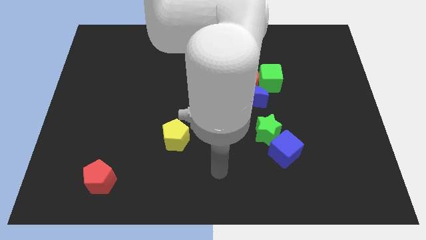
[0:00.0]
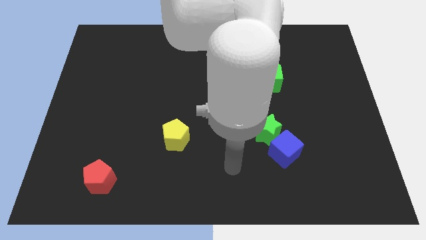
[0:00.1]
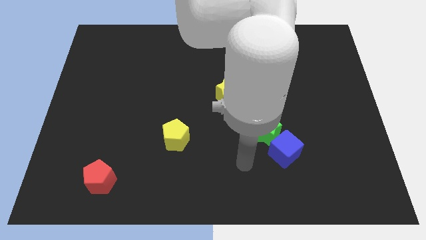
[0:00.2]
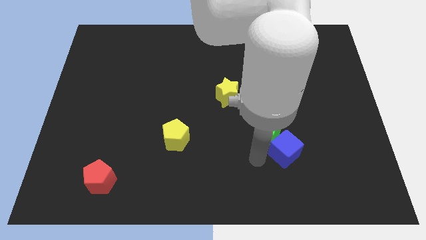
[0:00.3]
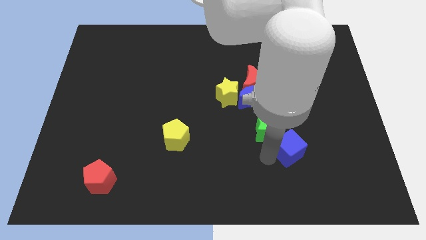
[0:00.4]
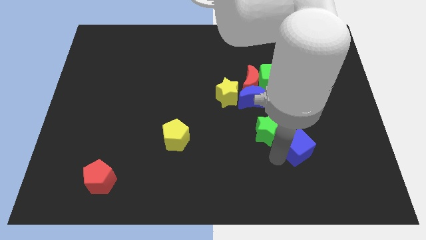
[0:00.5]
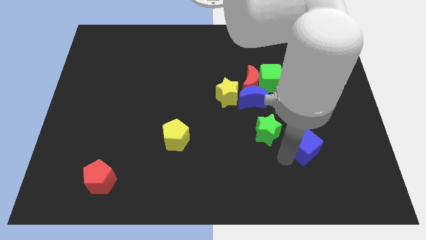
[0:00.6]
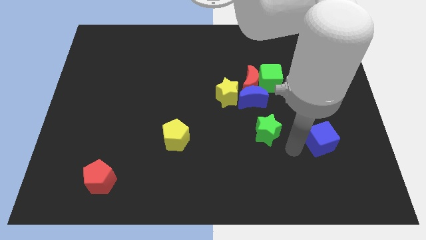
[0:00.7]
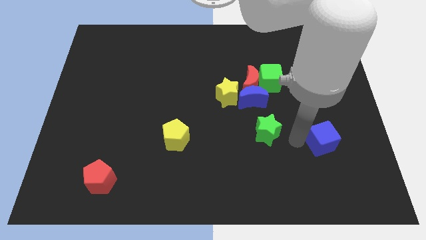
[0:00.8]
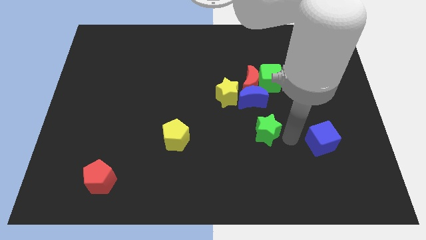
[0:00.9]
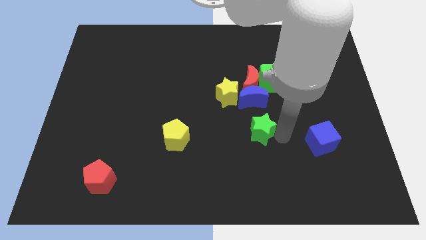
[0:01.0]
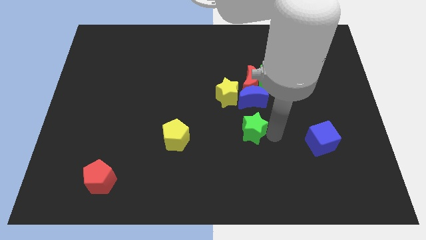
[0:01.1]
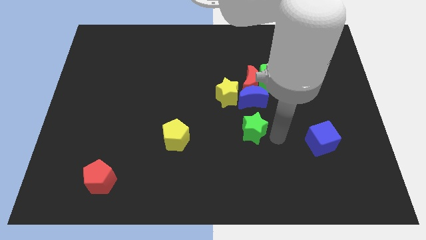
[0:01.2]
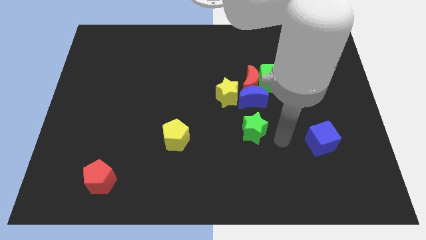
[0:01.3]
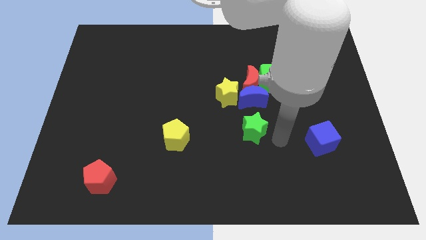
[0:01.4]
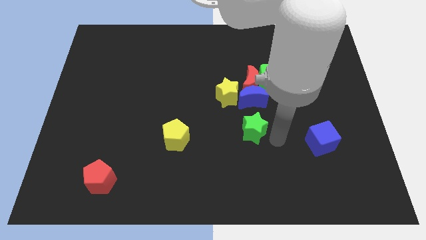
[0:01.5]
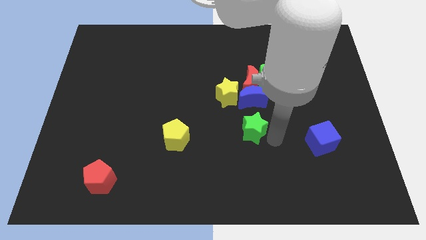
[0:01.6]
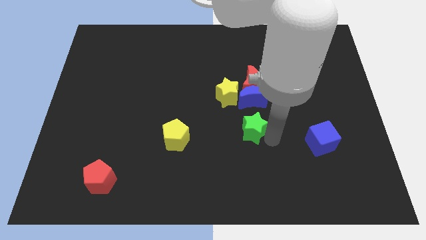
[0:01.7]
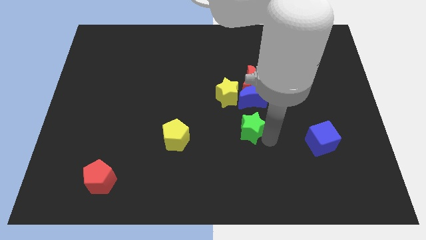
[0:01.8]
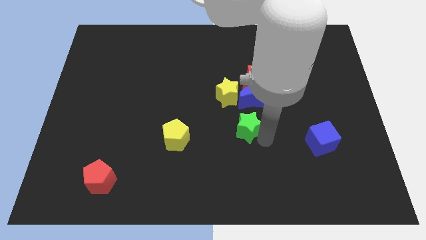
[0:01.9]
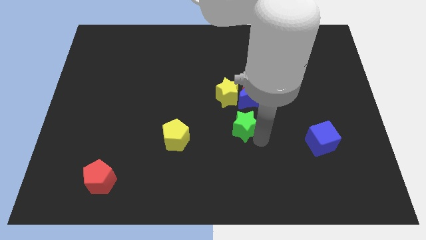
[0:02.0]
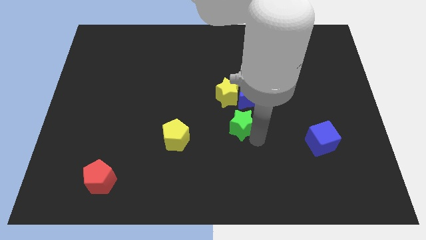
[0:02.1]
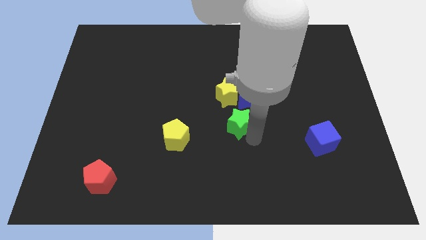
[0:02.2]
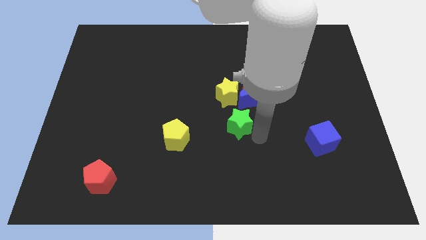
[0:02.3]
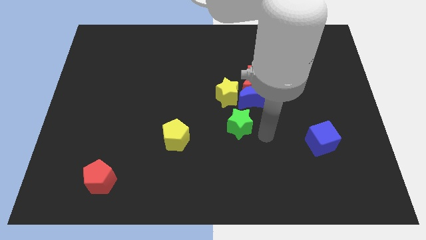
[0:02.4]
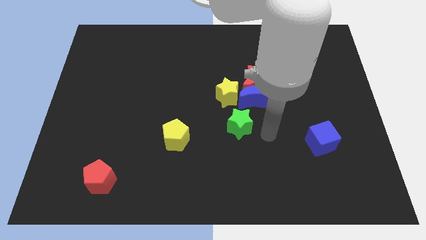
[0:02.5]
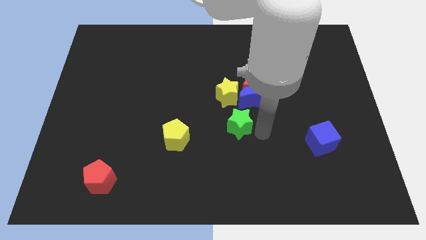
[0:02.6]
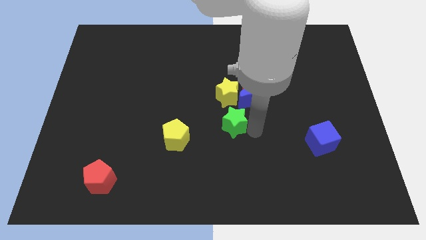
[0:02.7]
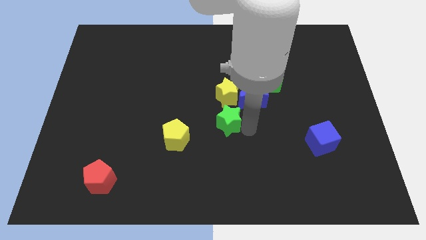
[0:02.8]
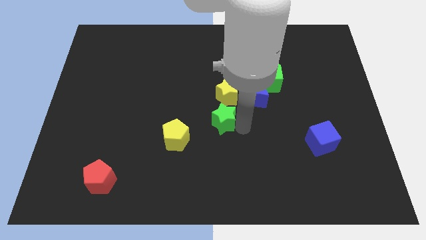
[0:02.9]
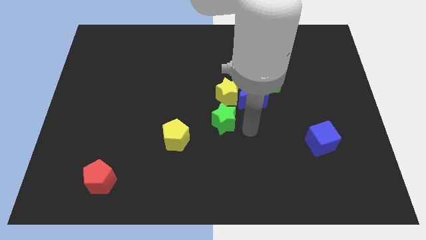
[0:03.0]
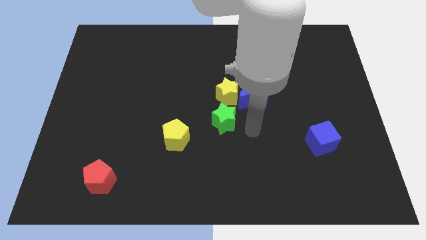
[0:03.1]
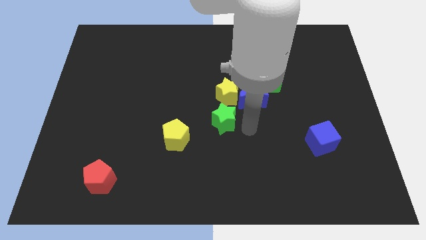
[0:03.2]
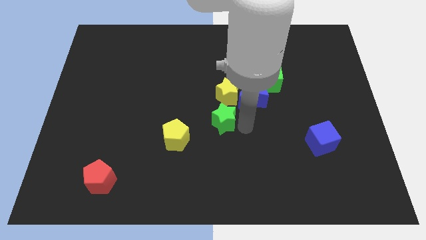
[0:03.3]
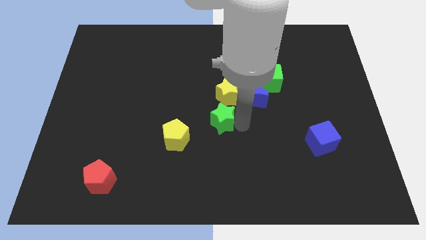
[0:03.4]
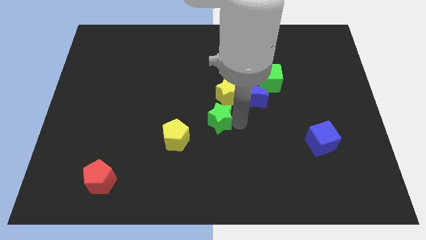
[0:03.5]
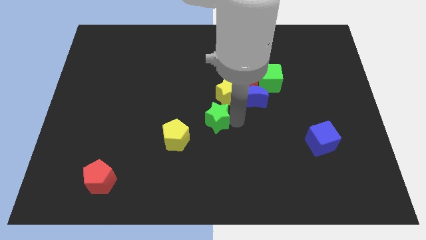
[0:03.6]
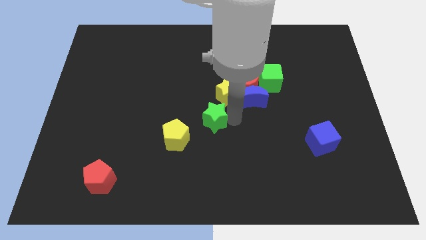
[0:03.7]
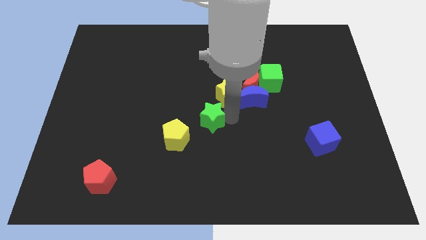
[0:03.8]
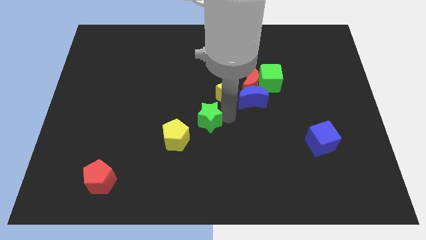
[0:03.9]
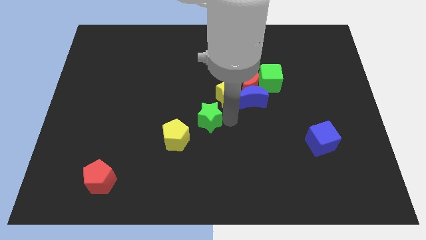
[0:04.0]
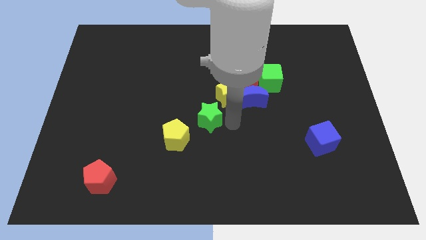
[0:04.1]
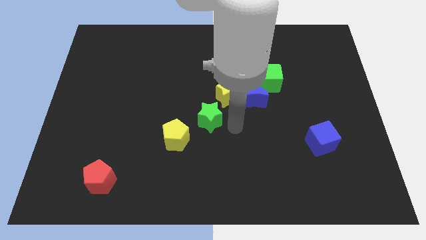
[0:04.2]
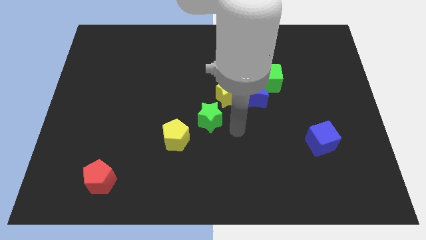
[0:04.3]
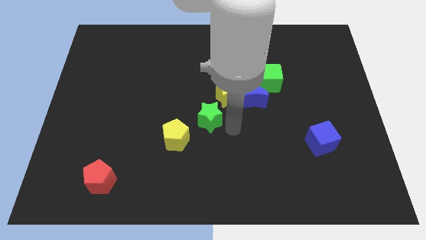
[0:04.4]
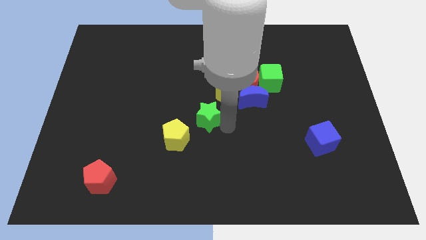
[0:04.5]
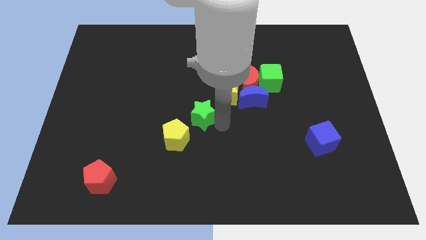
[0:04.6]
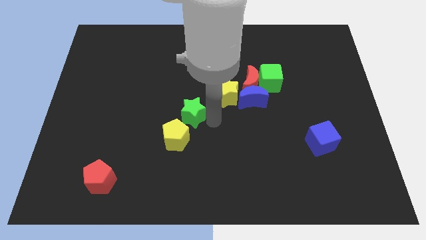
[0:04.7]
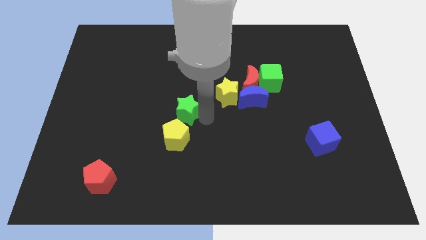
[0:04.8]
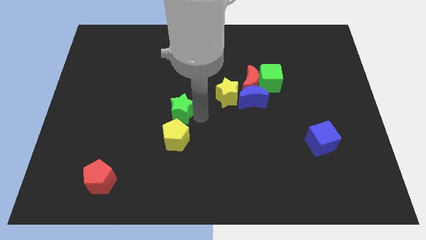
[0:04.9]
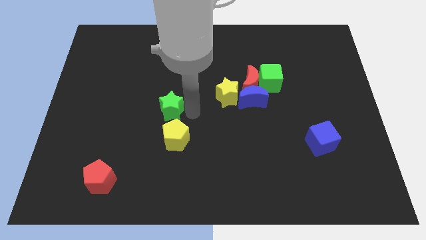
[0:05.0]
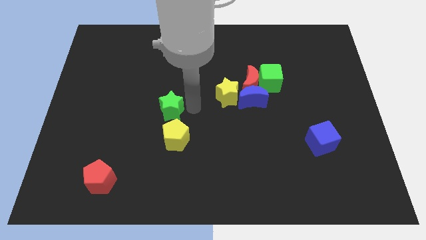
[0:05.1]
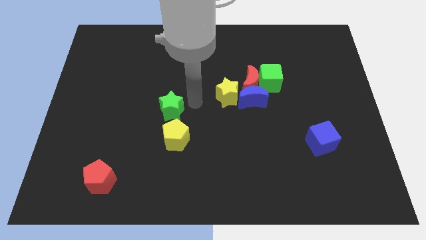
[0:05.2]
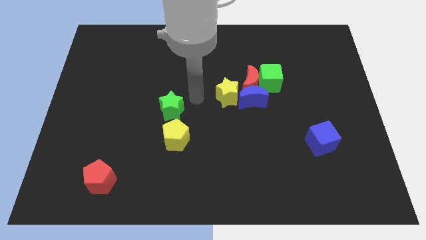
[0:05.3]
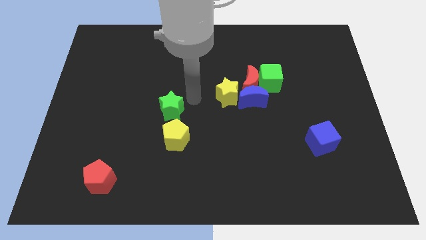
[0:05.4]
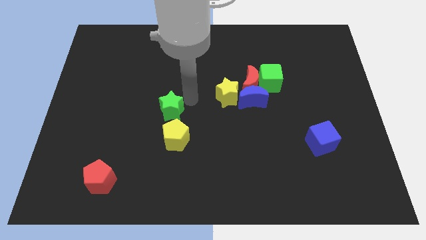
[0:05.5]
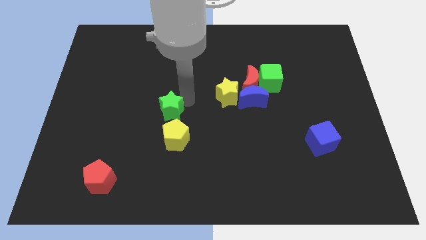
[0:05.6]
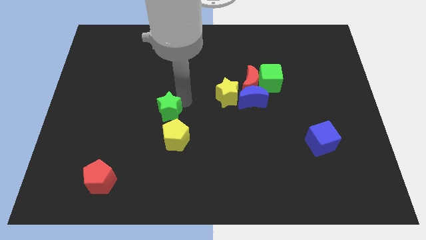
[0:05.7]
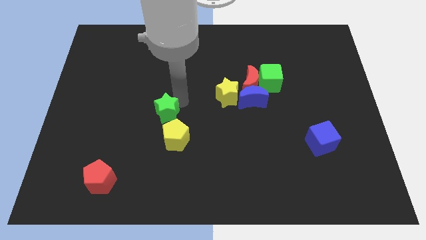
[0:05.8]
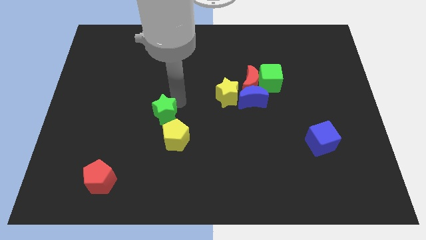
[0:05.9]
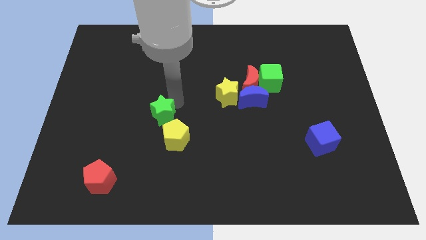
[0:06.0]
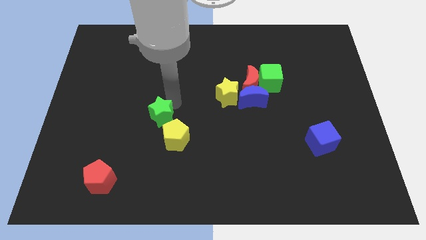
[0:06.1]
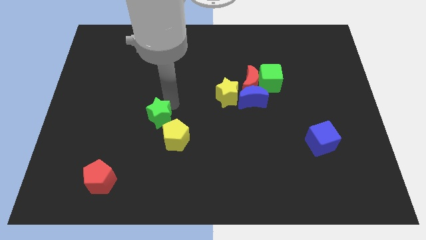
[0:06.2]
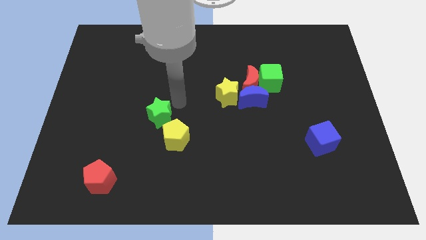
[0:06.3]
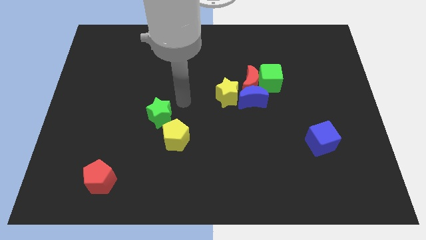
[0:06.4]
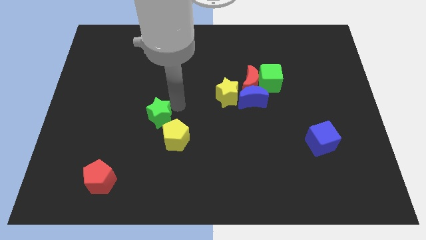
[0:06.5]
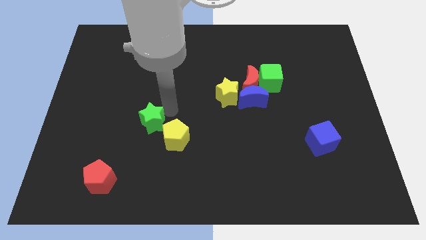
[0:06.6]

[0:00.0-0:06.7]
move the green star to the left of the yellow pentagon

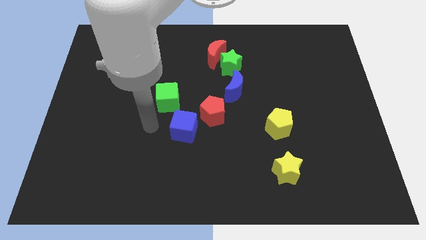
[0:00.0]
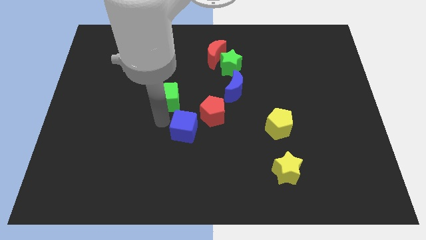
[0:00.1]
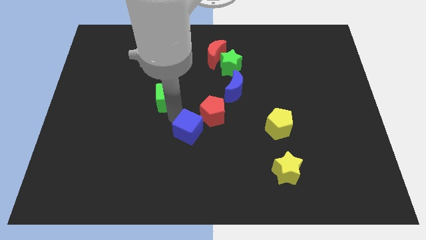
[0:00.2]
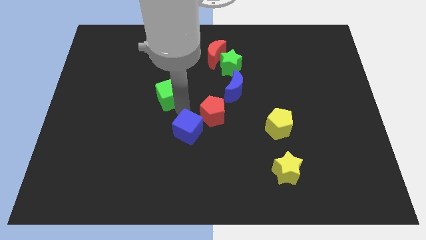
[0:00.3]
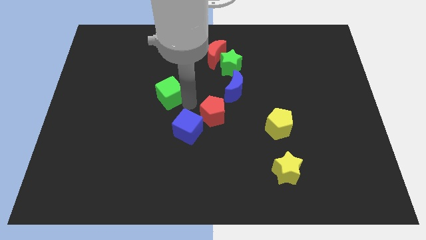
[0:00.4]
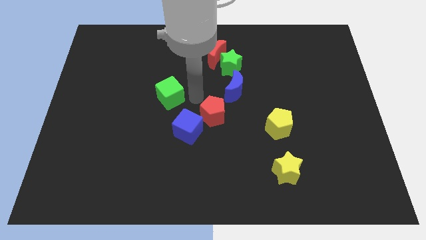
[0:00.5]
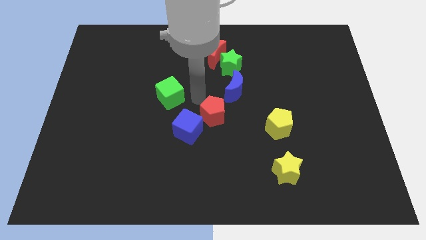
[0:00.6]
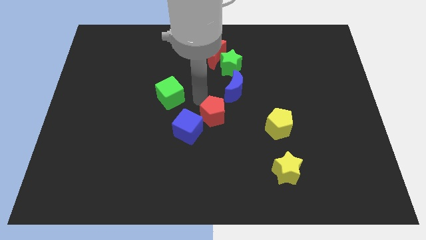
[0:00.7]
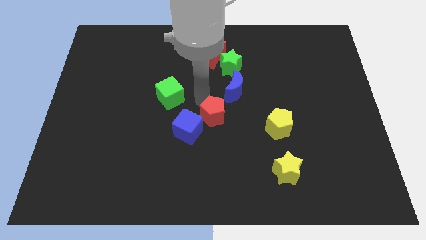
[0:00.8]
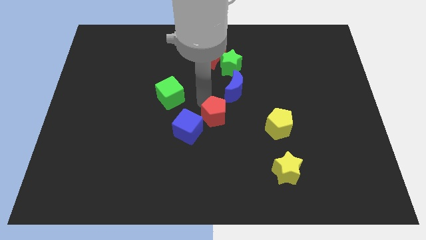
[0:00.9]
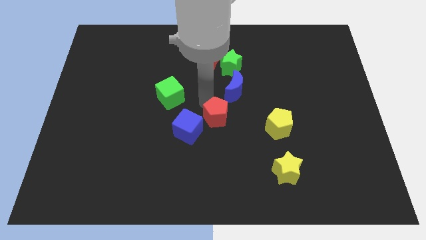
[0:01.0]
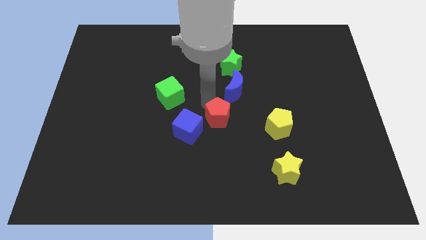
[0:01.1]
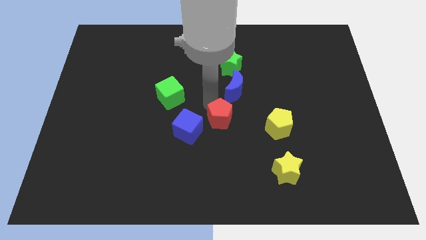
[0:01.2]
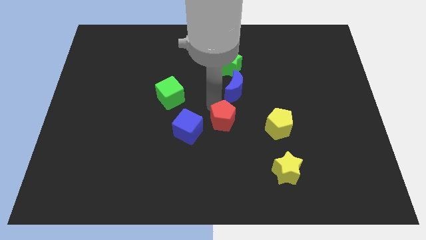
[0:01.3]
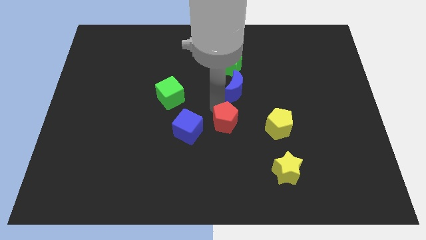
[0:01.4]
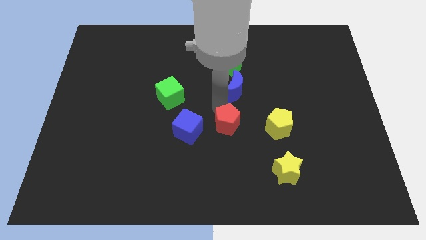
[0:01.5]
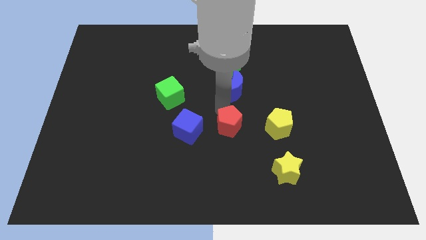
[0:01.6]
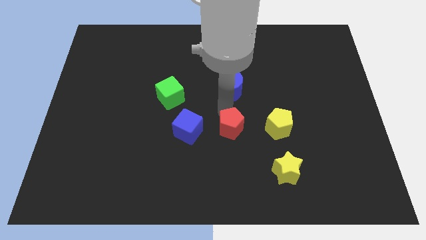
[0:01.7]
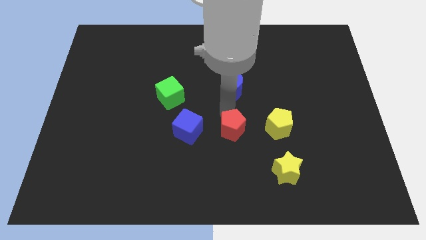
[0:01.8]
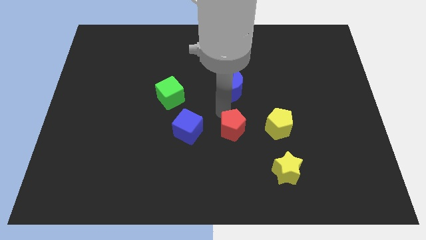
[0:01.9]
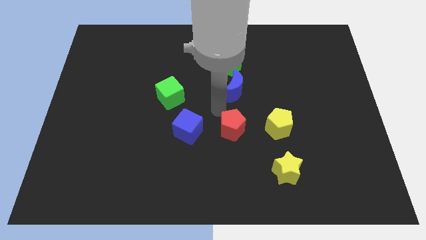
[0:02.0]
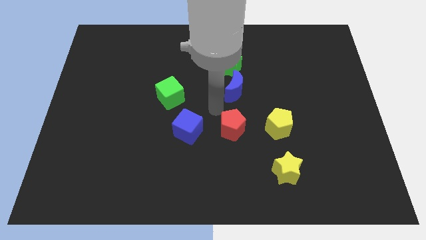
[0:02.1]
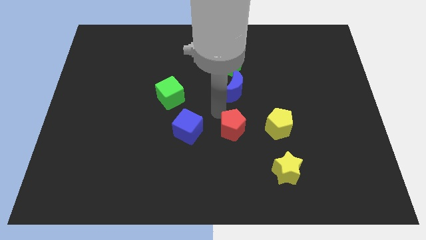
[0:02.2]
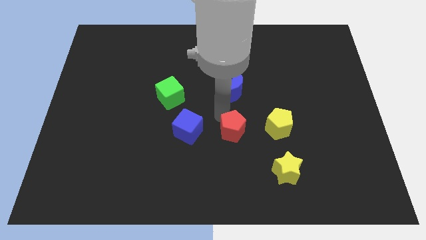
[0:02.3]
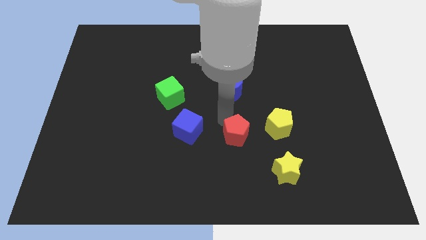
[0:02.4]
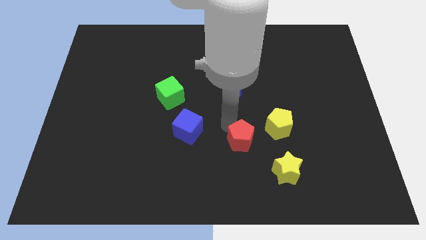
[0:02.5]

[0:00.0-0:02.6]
slide the red pentagon to the bottom left of the yellow pentagon
